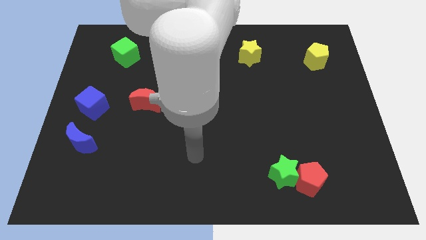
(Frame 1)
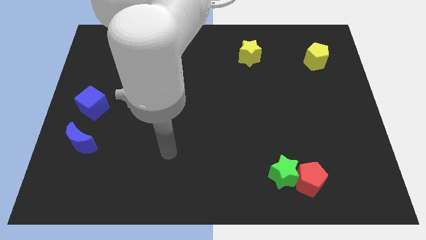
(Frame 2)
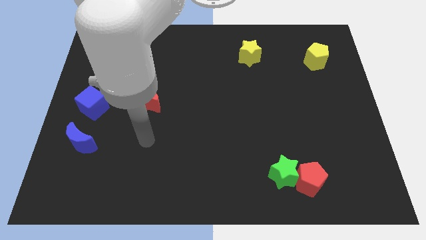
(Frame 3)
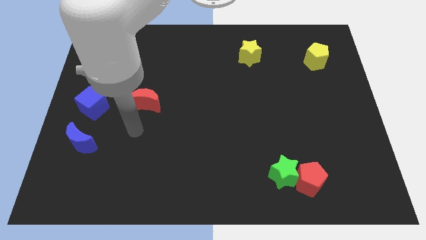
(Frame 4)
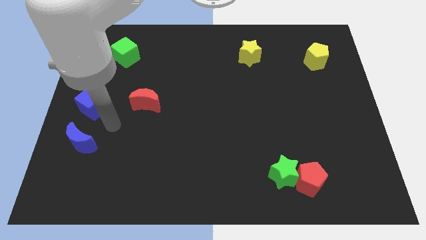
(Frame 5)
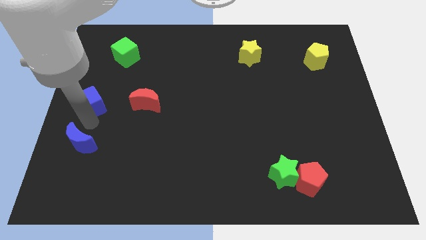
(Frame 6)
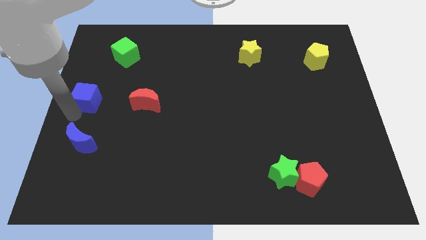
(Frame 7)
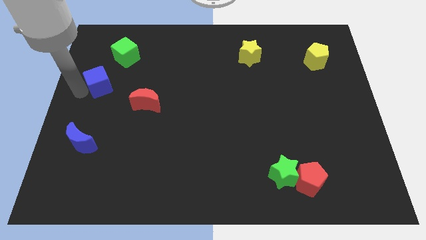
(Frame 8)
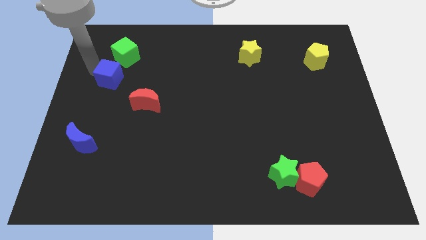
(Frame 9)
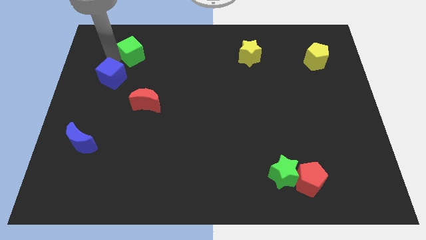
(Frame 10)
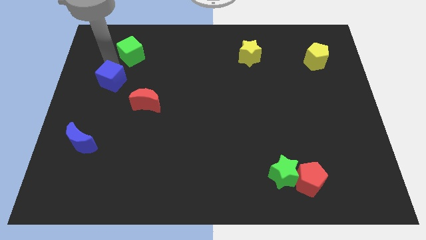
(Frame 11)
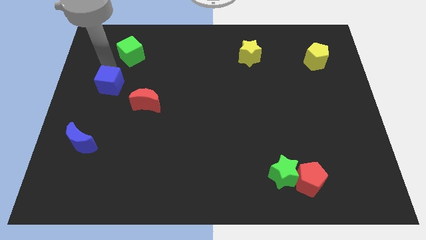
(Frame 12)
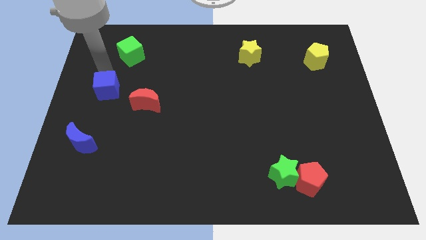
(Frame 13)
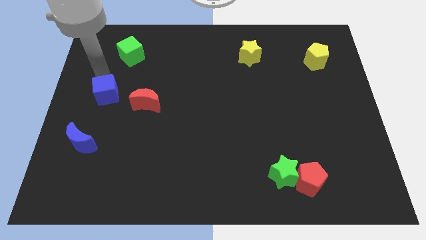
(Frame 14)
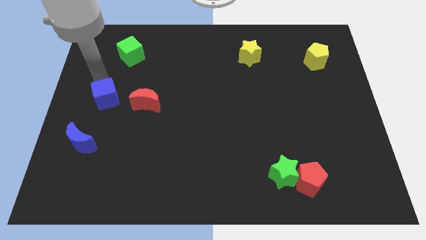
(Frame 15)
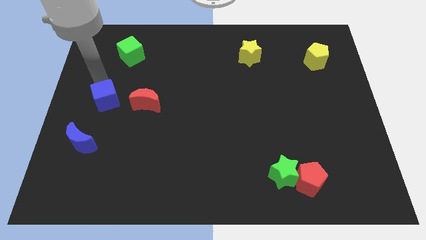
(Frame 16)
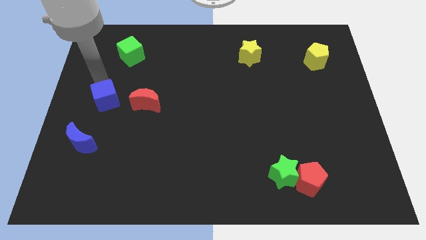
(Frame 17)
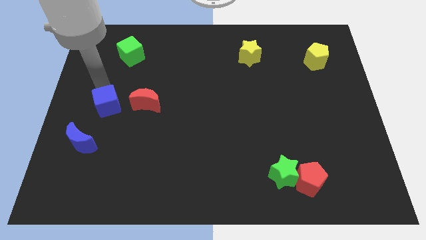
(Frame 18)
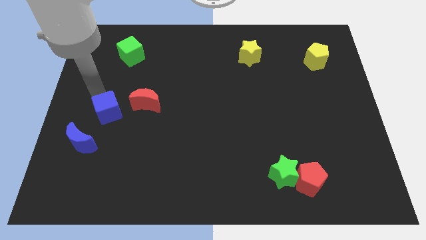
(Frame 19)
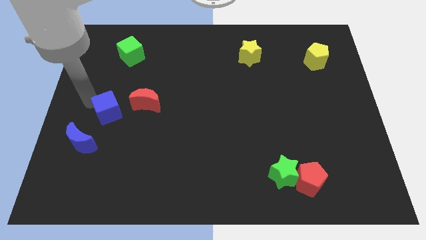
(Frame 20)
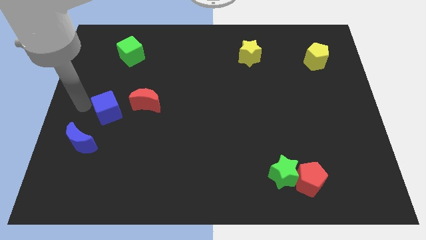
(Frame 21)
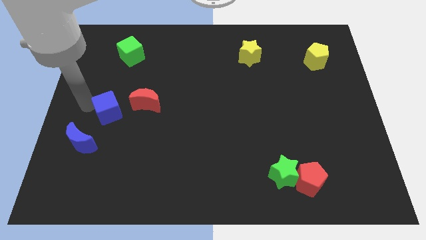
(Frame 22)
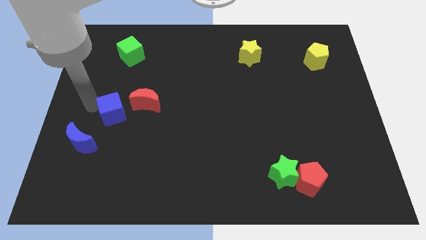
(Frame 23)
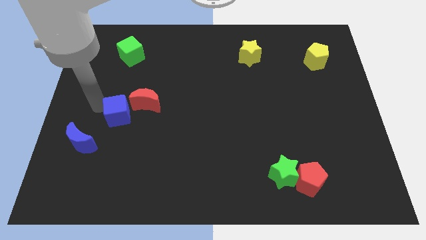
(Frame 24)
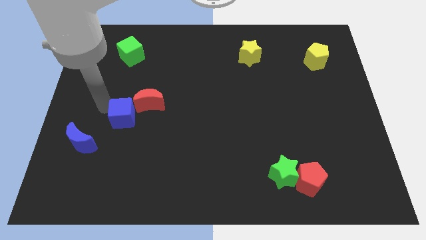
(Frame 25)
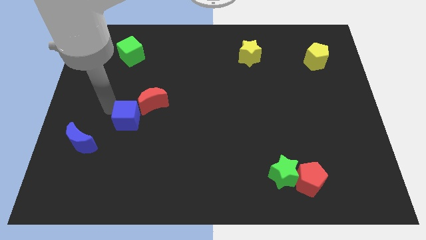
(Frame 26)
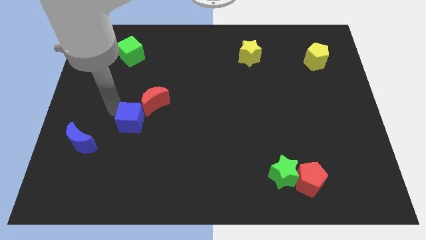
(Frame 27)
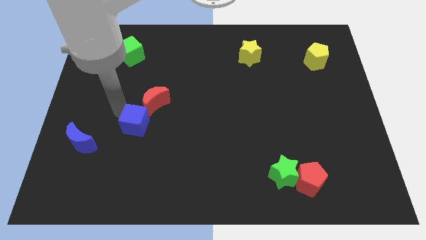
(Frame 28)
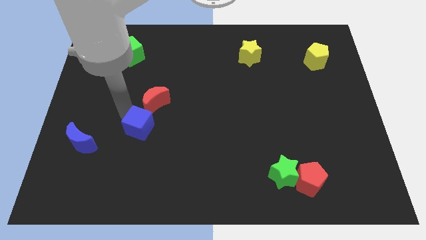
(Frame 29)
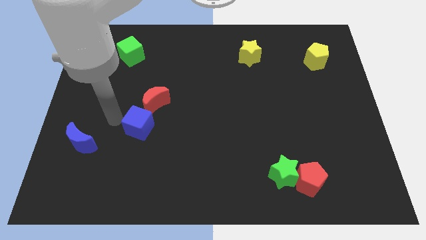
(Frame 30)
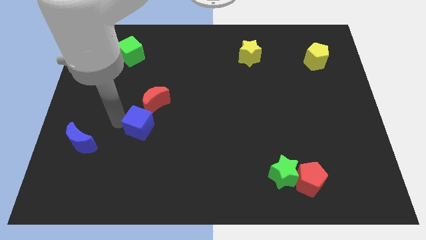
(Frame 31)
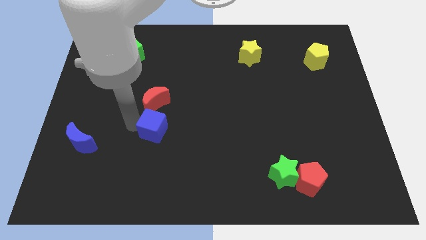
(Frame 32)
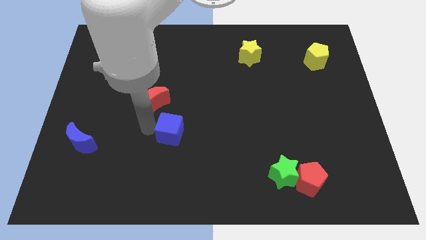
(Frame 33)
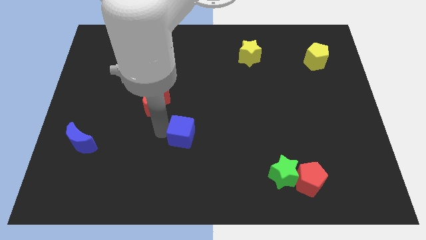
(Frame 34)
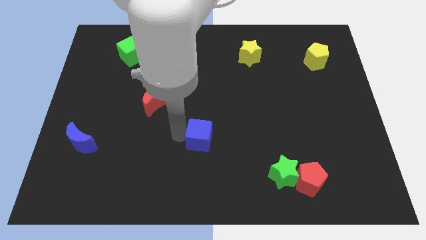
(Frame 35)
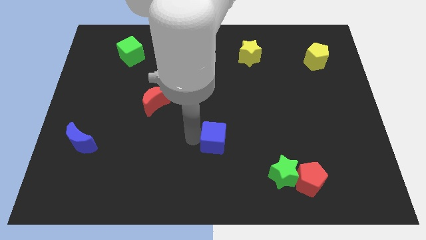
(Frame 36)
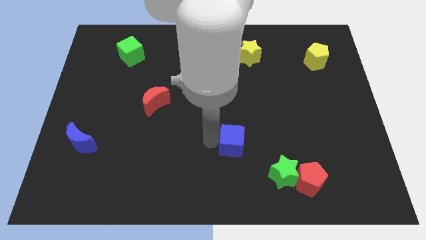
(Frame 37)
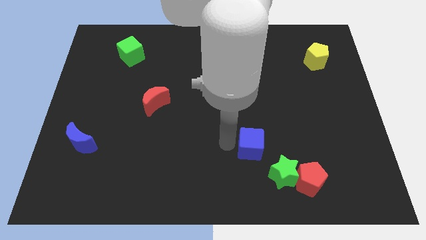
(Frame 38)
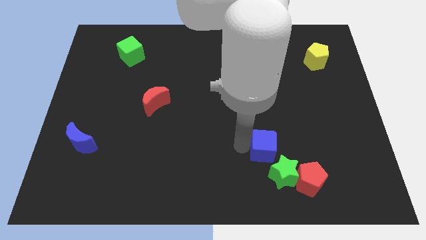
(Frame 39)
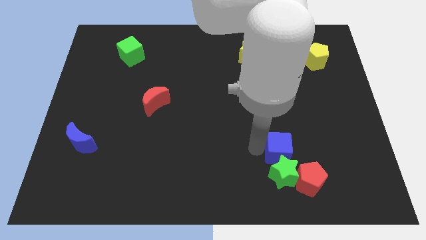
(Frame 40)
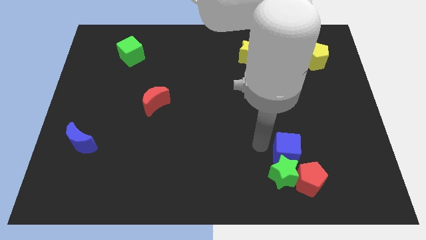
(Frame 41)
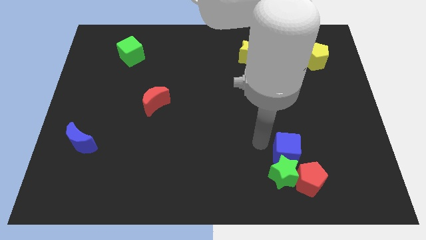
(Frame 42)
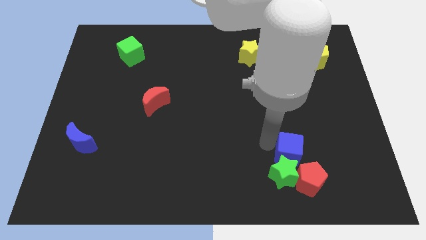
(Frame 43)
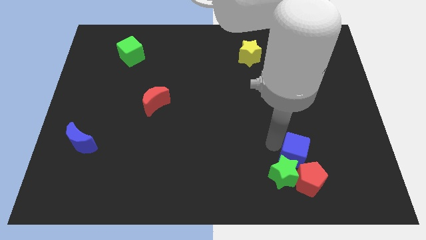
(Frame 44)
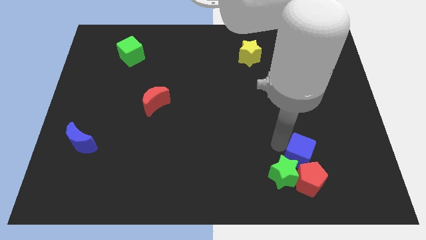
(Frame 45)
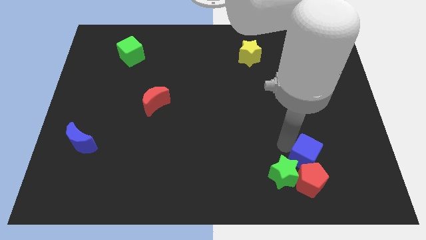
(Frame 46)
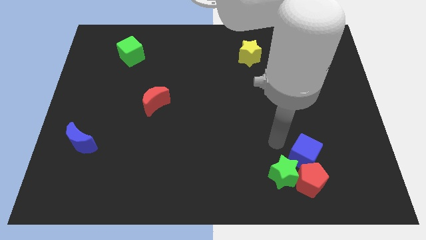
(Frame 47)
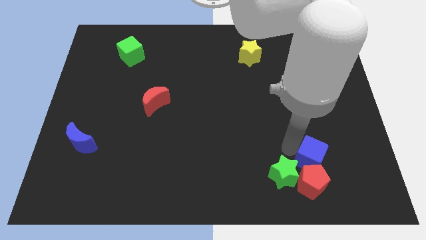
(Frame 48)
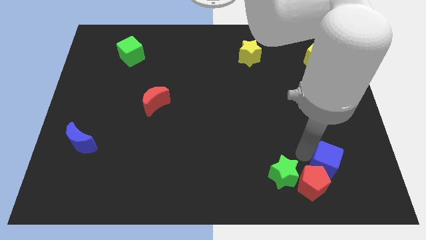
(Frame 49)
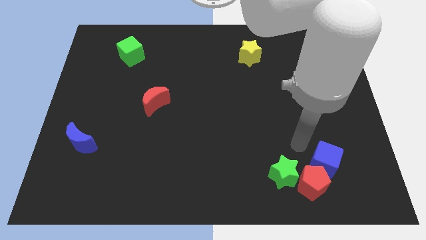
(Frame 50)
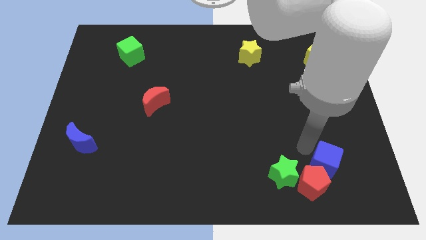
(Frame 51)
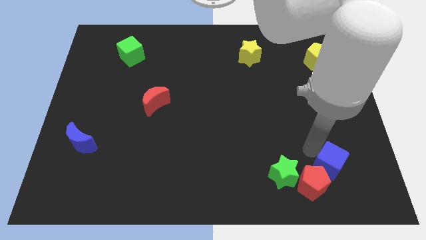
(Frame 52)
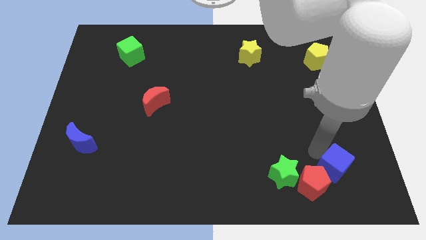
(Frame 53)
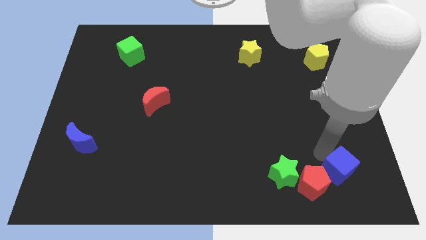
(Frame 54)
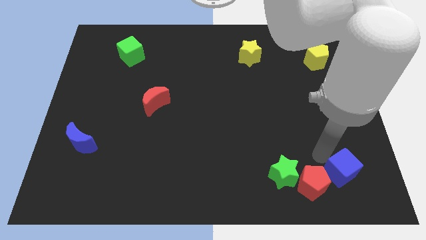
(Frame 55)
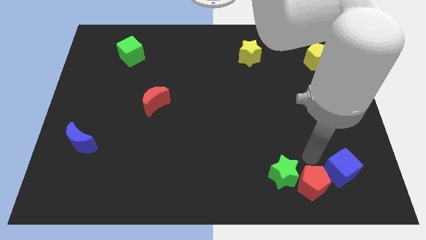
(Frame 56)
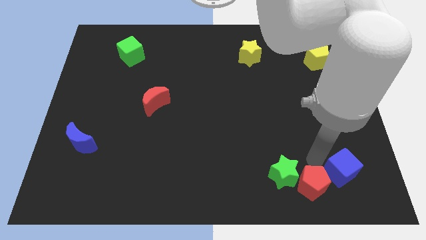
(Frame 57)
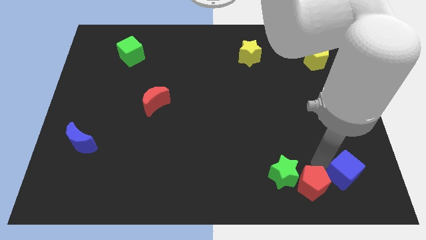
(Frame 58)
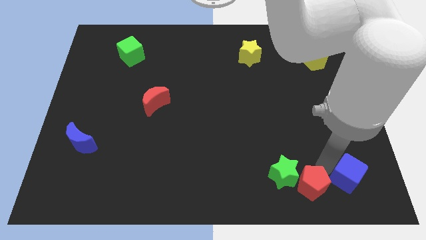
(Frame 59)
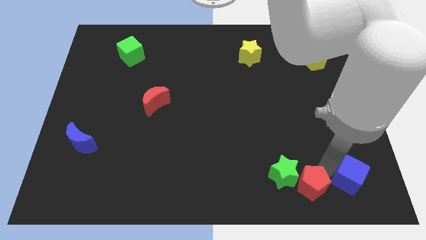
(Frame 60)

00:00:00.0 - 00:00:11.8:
put the blue cube to the bottom right

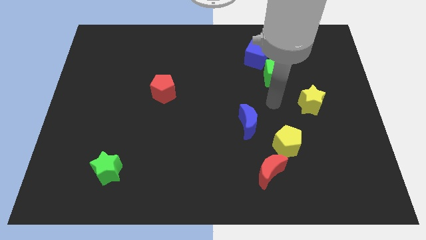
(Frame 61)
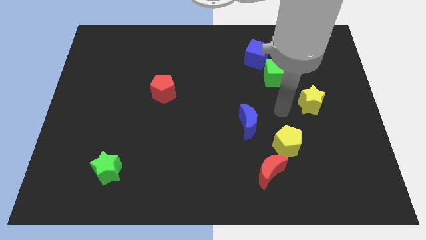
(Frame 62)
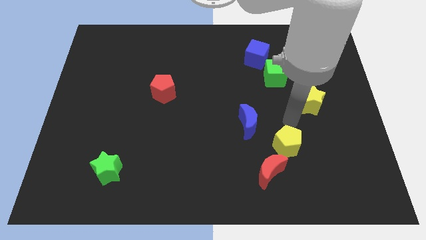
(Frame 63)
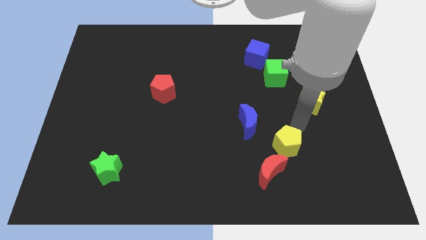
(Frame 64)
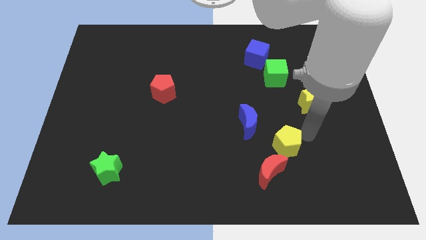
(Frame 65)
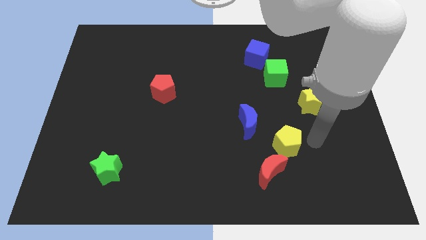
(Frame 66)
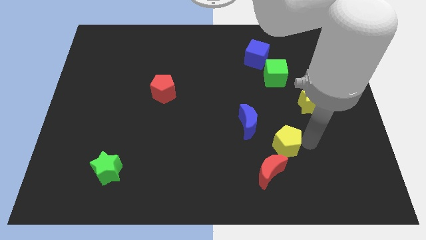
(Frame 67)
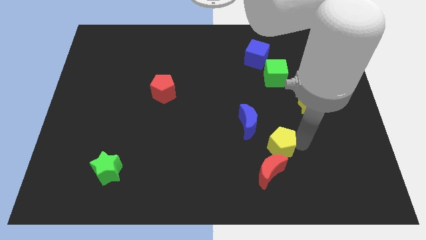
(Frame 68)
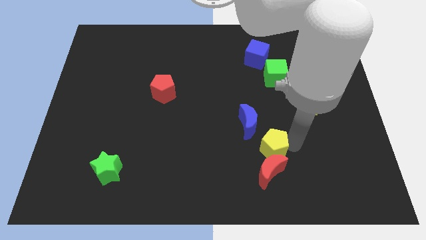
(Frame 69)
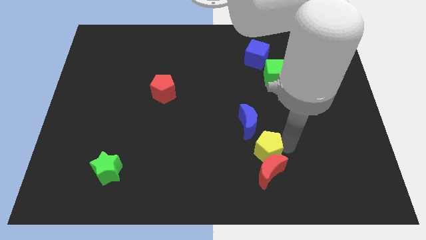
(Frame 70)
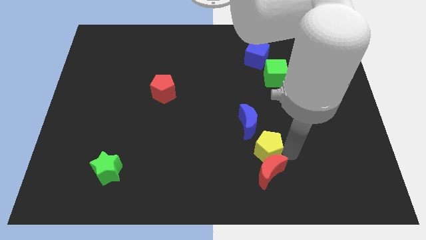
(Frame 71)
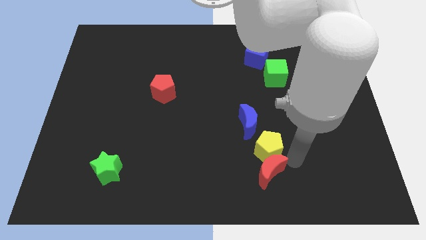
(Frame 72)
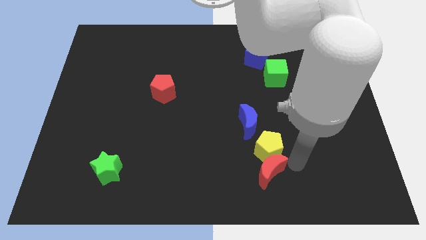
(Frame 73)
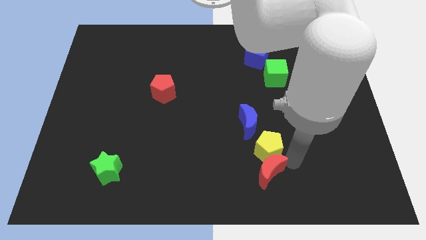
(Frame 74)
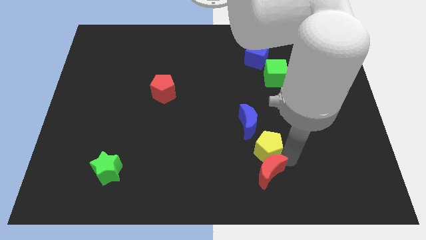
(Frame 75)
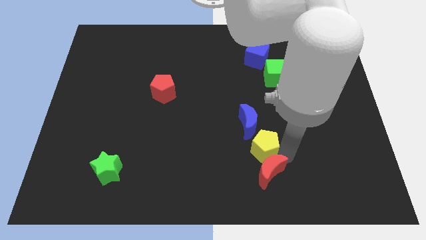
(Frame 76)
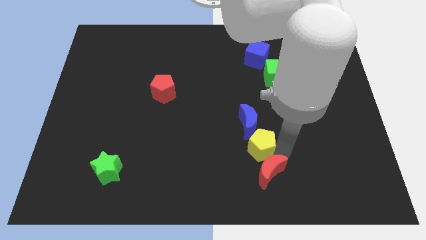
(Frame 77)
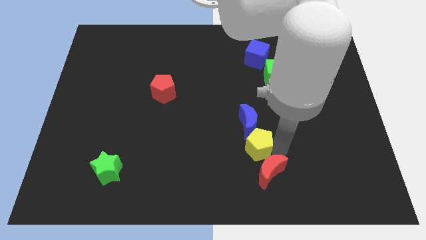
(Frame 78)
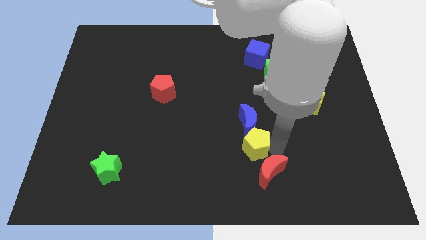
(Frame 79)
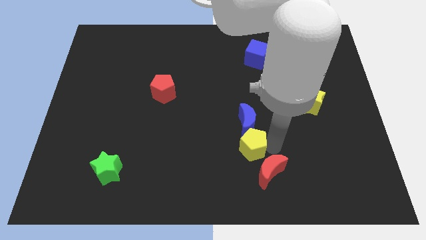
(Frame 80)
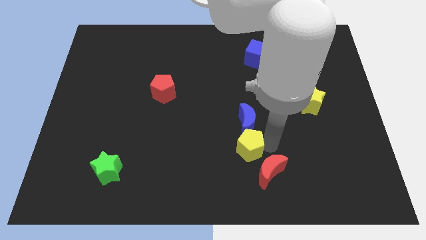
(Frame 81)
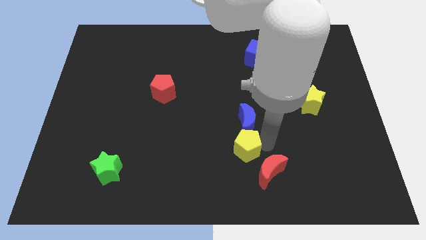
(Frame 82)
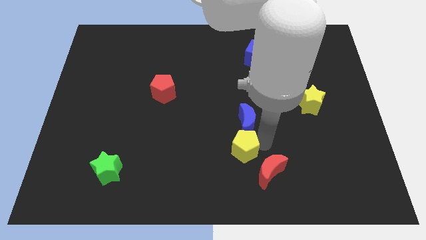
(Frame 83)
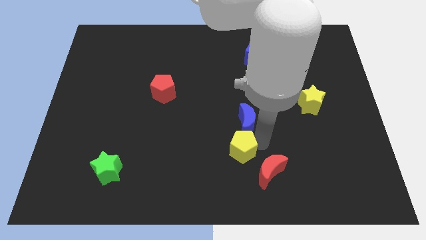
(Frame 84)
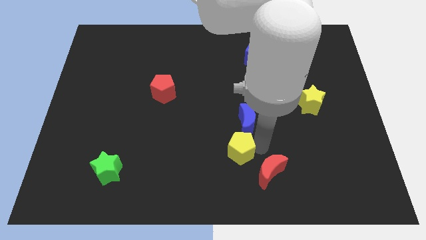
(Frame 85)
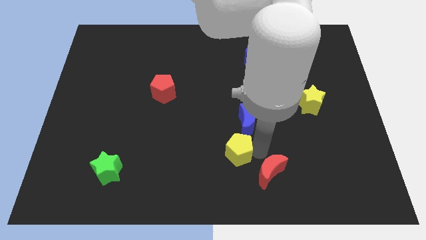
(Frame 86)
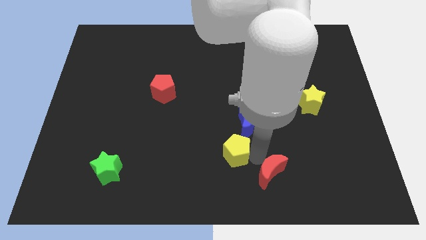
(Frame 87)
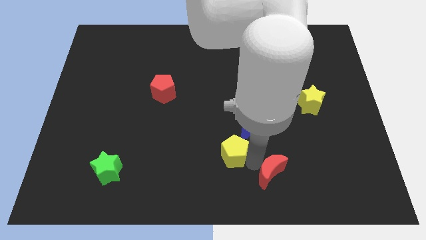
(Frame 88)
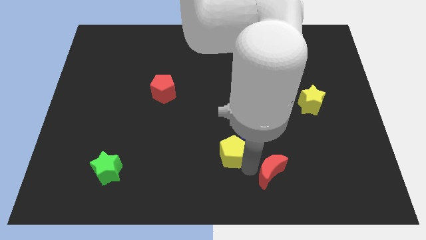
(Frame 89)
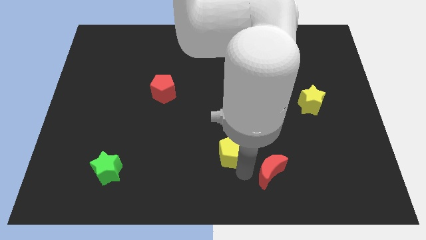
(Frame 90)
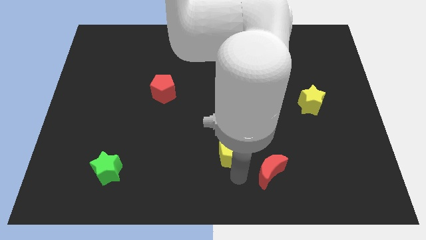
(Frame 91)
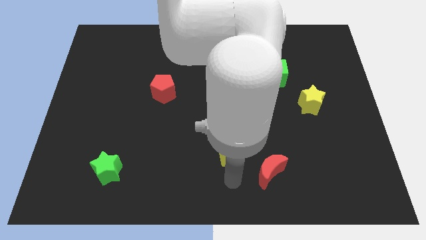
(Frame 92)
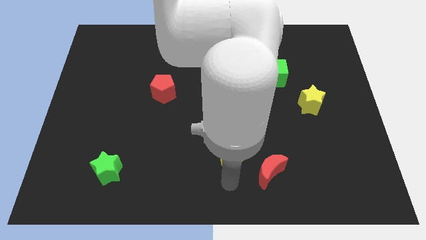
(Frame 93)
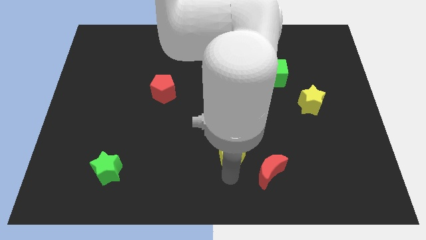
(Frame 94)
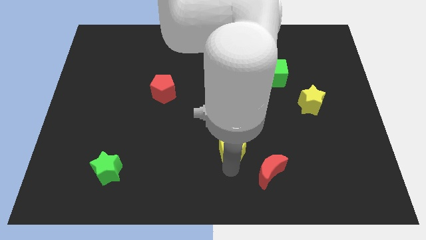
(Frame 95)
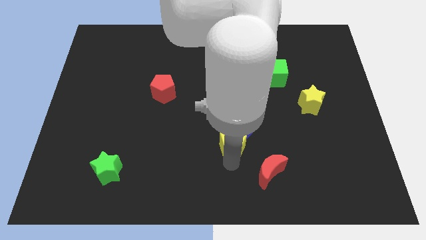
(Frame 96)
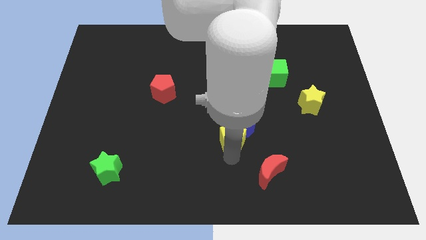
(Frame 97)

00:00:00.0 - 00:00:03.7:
put the yellow pentagon to the center
